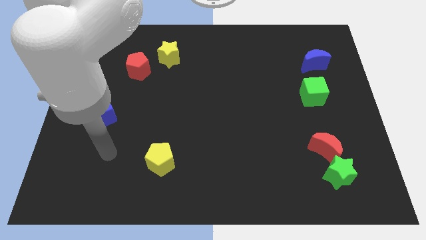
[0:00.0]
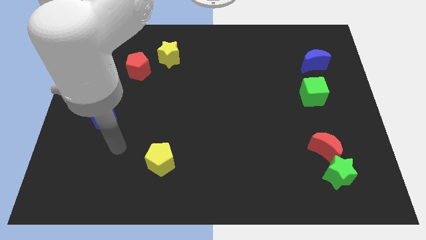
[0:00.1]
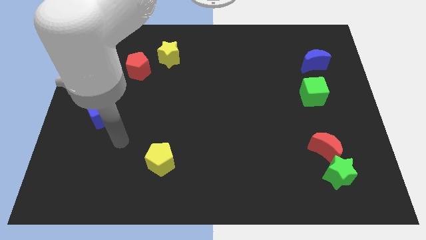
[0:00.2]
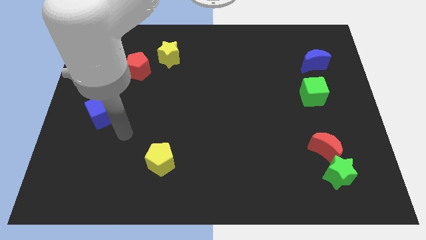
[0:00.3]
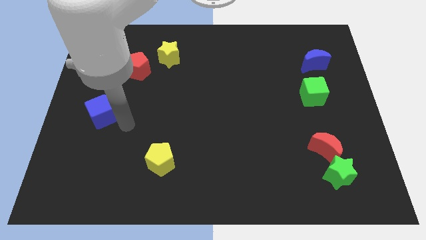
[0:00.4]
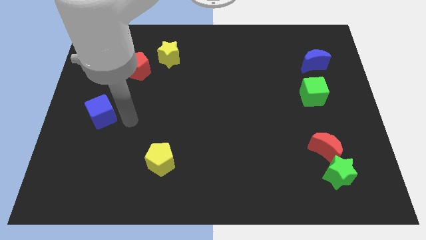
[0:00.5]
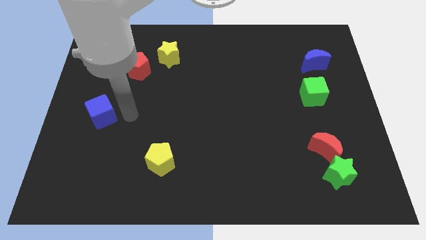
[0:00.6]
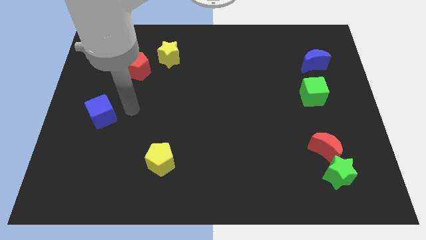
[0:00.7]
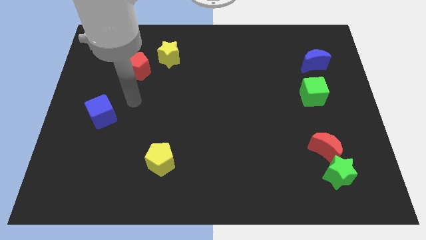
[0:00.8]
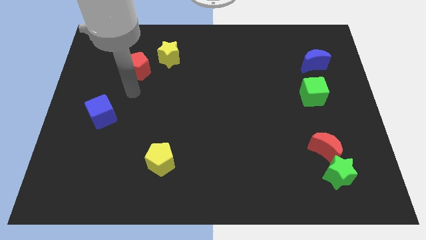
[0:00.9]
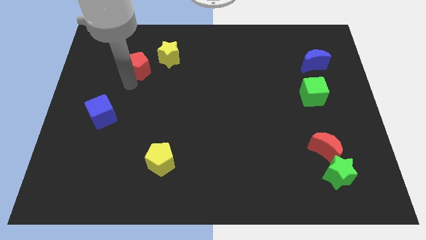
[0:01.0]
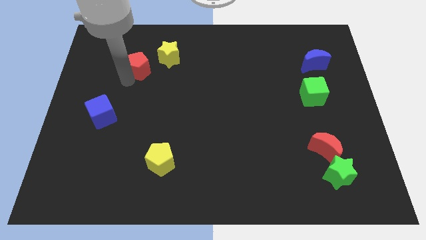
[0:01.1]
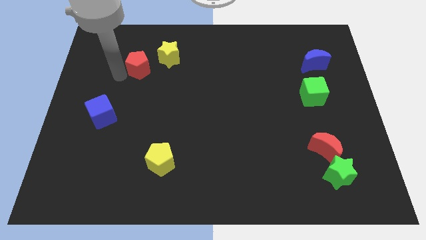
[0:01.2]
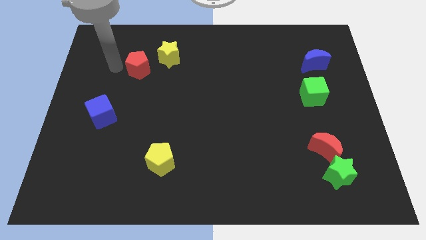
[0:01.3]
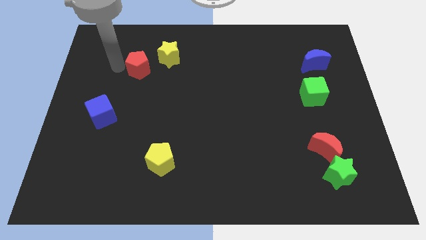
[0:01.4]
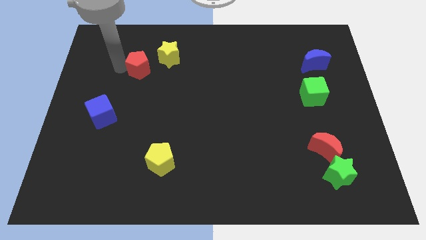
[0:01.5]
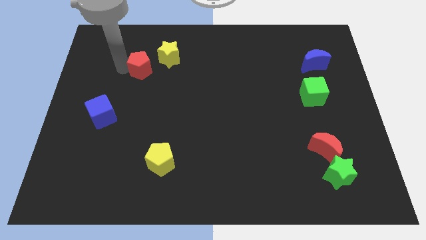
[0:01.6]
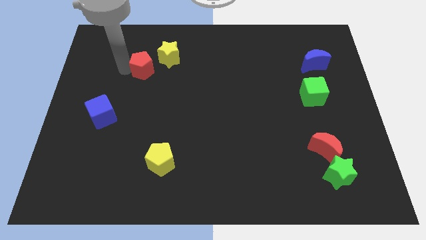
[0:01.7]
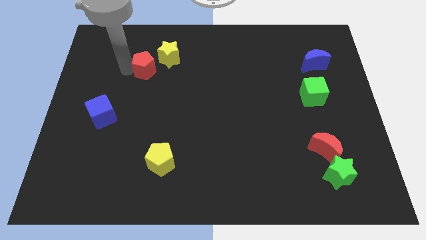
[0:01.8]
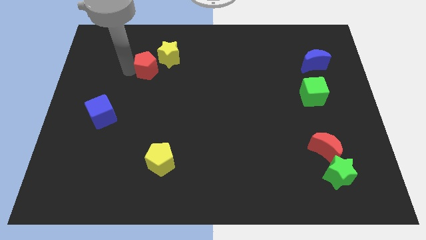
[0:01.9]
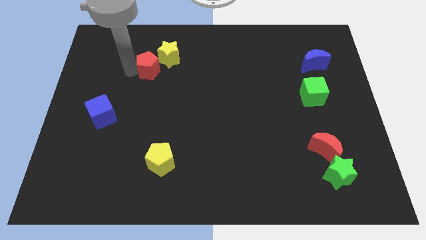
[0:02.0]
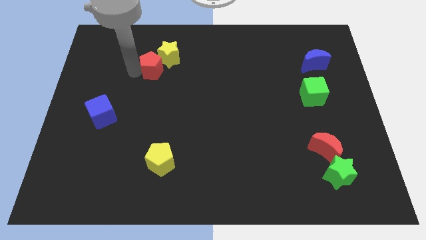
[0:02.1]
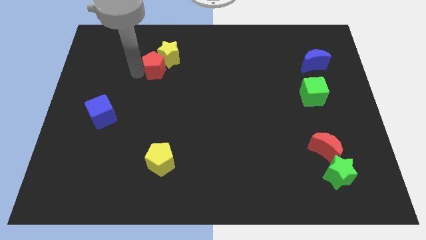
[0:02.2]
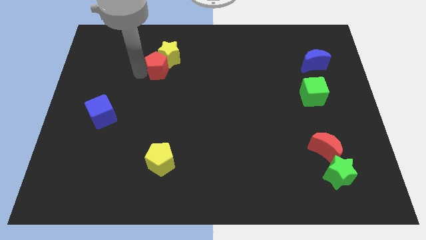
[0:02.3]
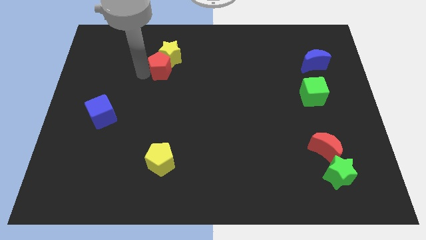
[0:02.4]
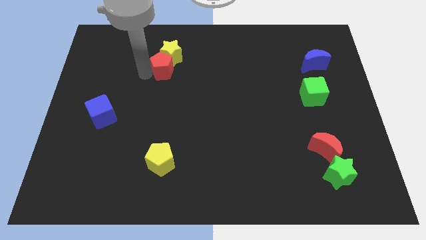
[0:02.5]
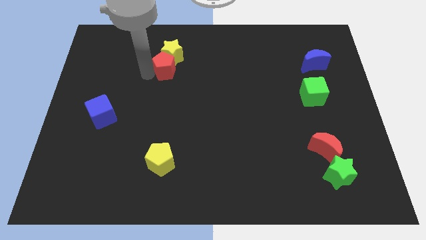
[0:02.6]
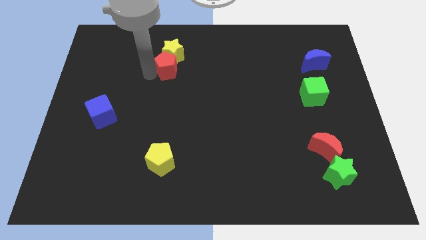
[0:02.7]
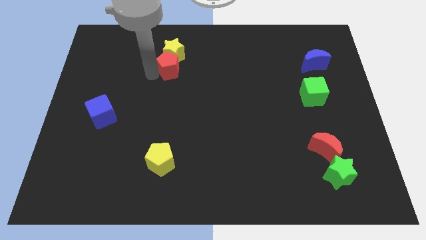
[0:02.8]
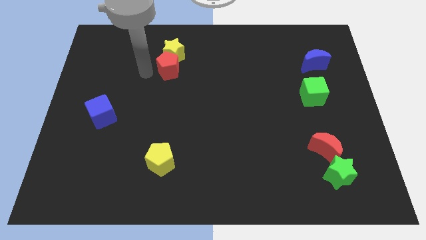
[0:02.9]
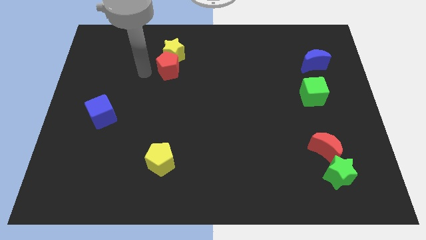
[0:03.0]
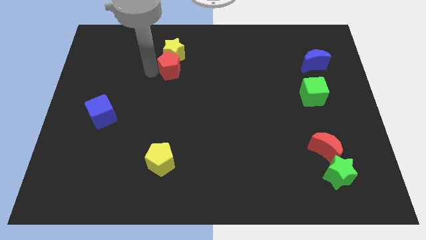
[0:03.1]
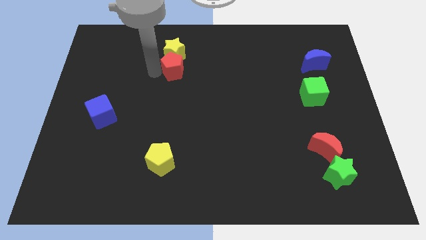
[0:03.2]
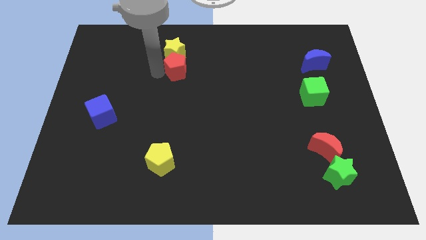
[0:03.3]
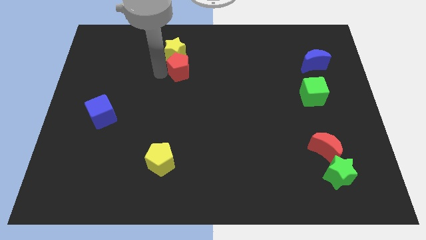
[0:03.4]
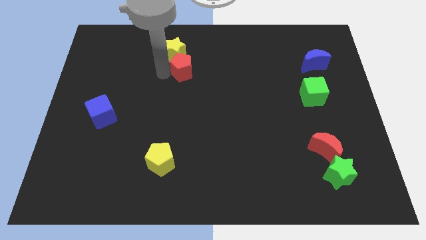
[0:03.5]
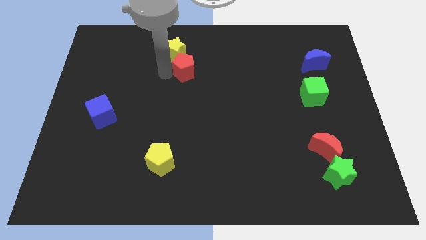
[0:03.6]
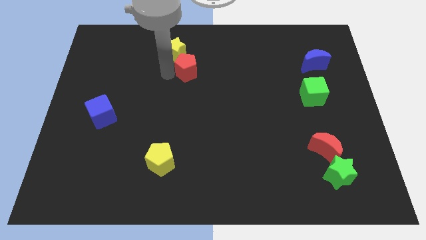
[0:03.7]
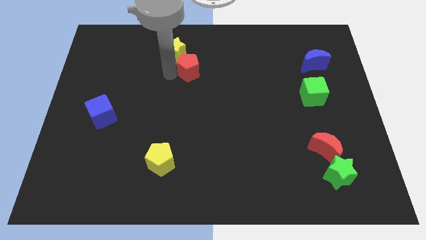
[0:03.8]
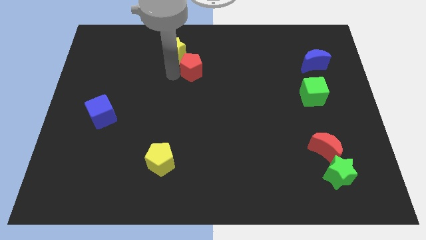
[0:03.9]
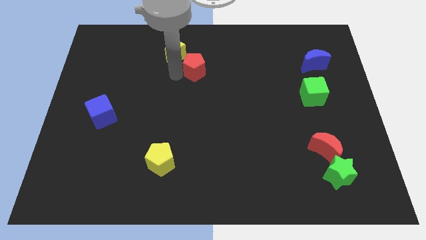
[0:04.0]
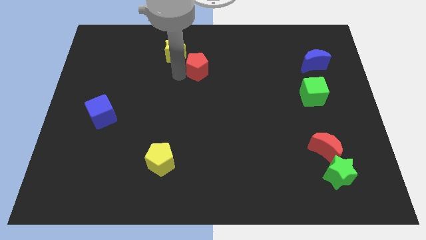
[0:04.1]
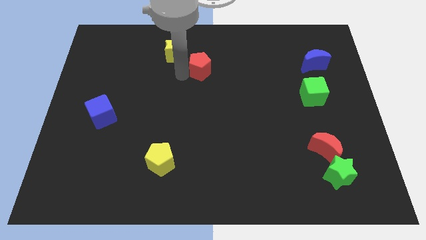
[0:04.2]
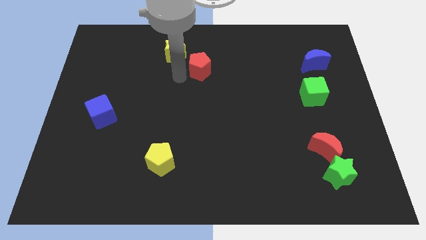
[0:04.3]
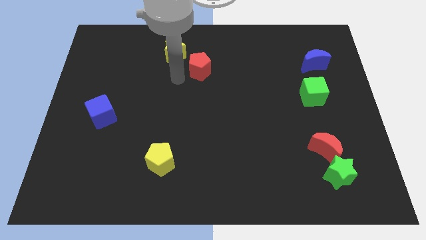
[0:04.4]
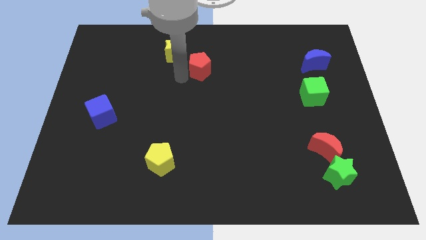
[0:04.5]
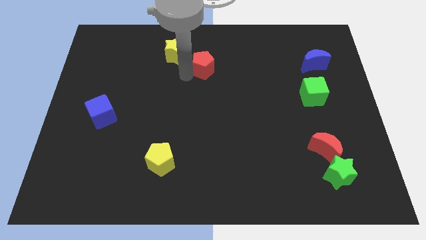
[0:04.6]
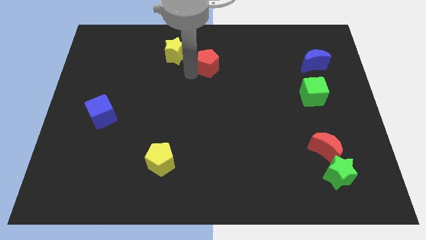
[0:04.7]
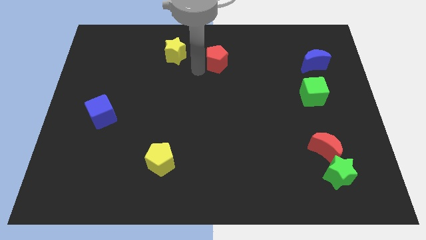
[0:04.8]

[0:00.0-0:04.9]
move the red pentagon to the right

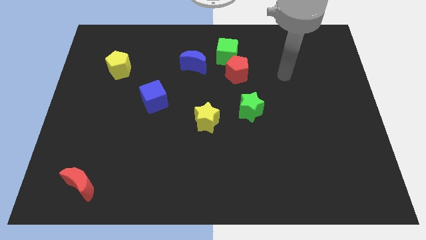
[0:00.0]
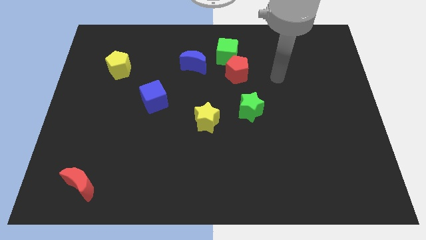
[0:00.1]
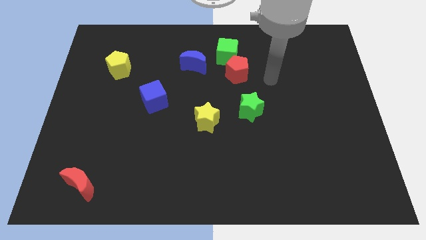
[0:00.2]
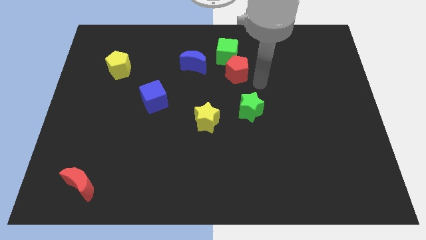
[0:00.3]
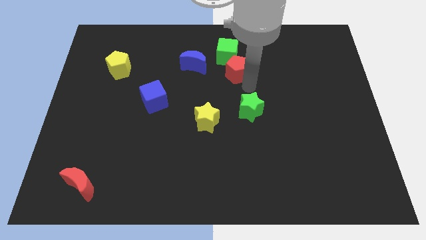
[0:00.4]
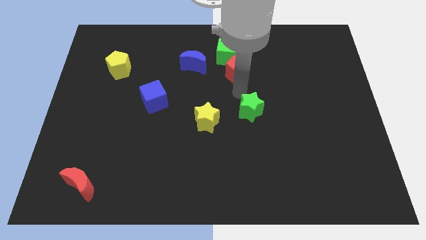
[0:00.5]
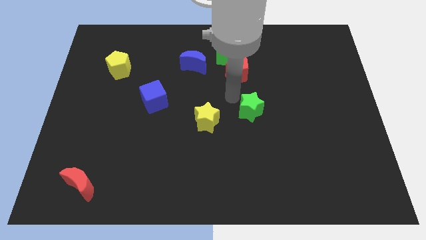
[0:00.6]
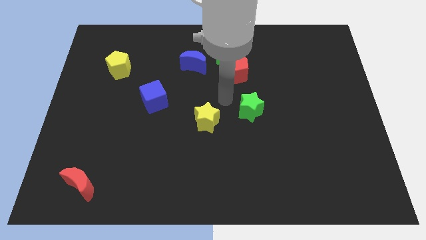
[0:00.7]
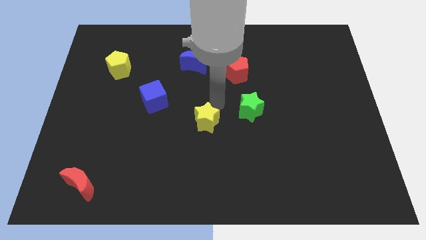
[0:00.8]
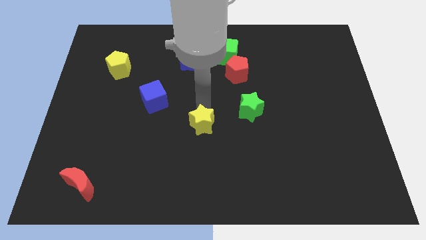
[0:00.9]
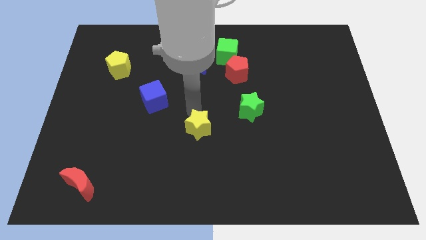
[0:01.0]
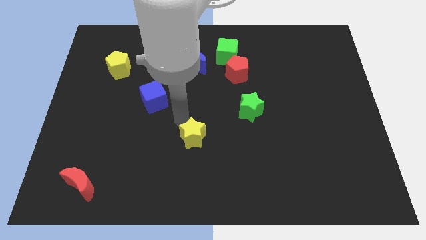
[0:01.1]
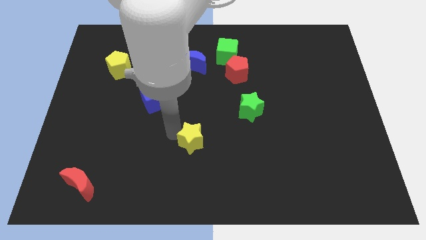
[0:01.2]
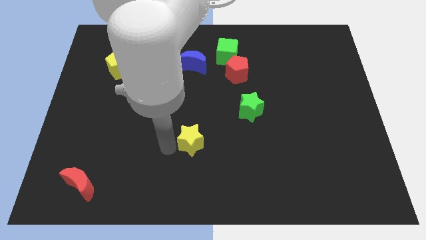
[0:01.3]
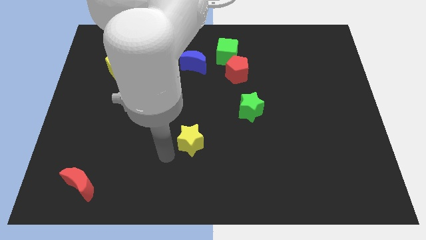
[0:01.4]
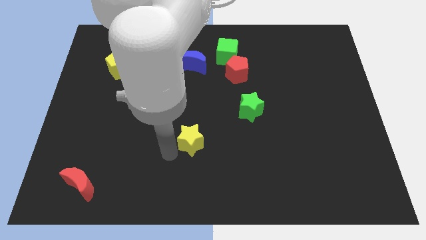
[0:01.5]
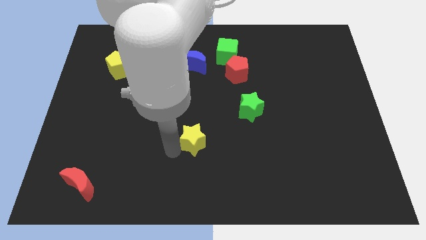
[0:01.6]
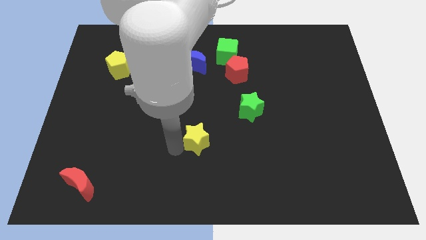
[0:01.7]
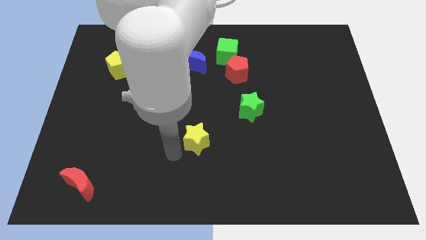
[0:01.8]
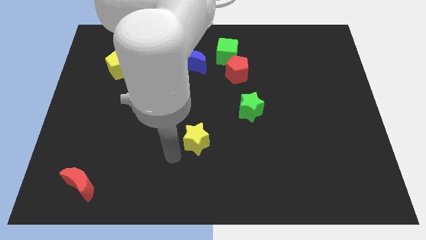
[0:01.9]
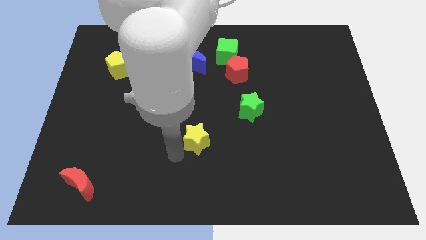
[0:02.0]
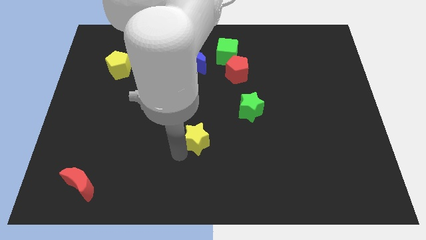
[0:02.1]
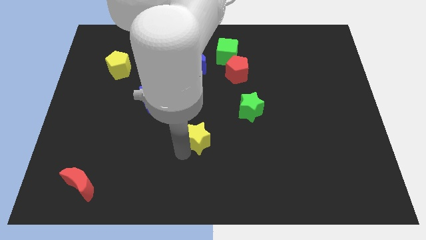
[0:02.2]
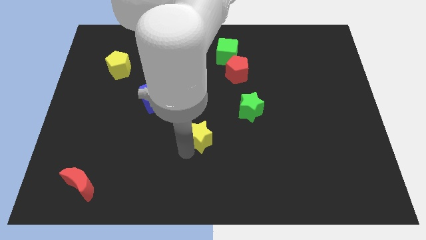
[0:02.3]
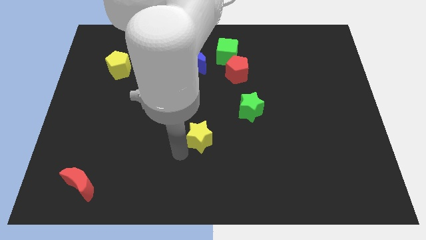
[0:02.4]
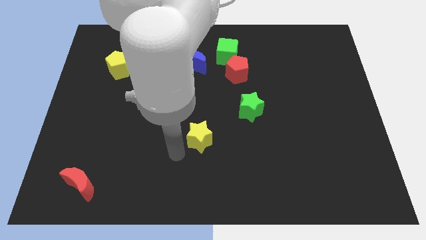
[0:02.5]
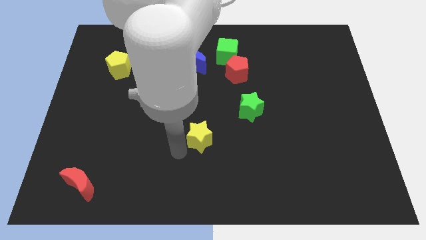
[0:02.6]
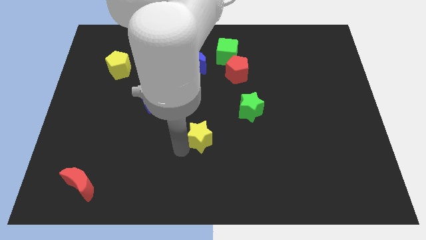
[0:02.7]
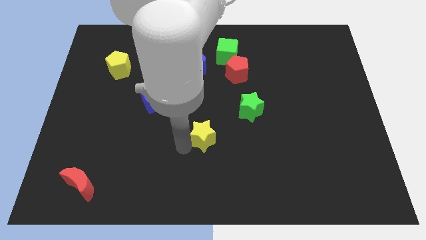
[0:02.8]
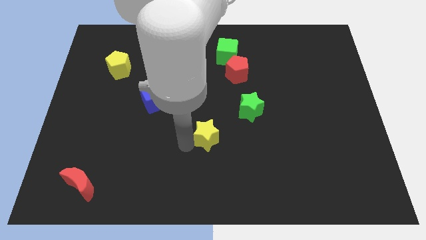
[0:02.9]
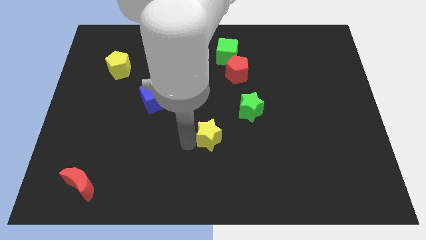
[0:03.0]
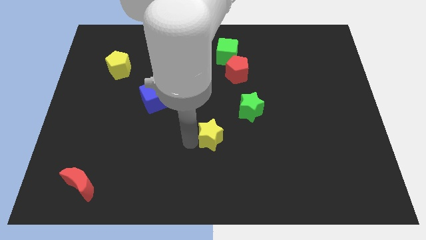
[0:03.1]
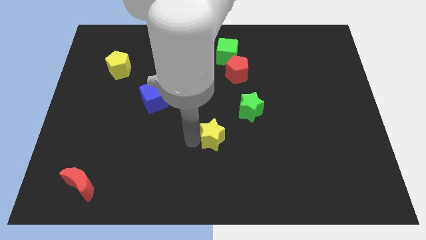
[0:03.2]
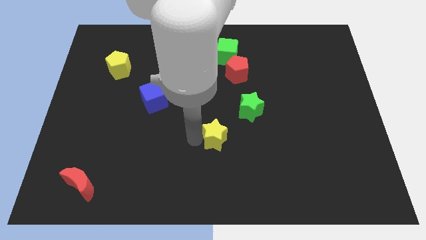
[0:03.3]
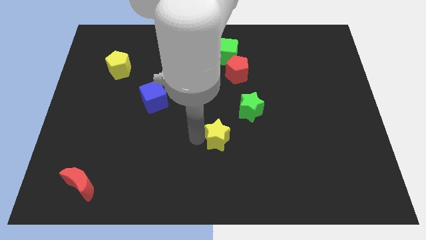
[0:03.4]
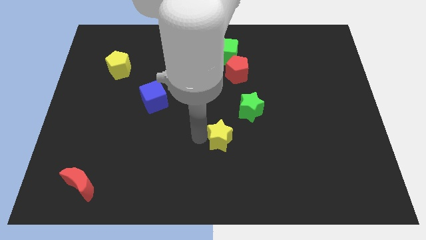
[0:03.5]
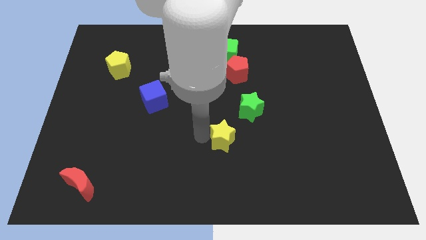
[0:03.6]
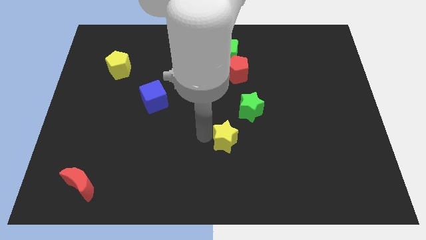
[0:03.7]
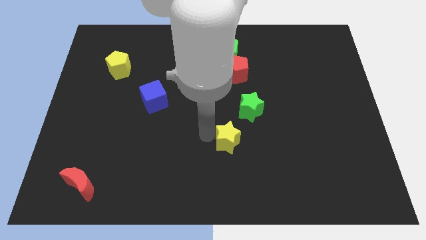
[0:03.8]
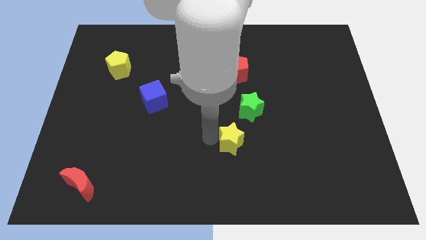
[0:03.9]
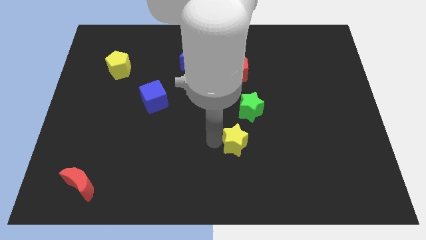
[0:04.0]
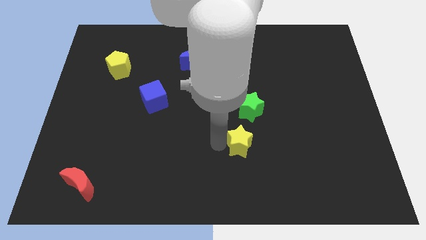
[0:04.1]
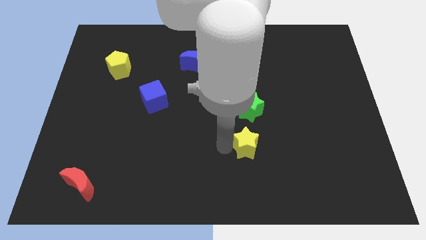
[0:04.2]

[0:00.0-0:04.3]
move the yellow star a little bit to the right
